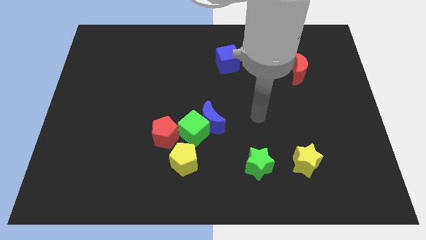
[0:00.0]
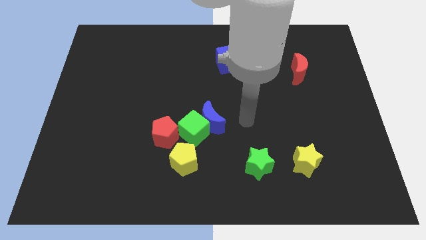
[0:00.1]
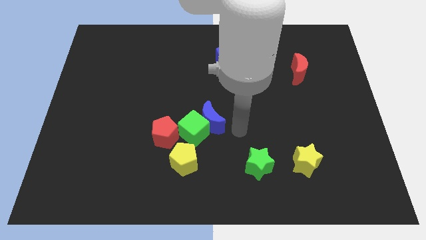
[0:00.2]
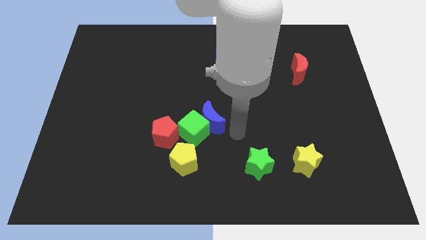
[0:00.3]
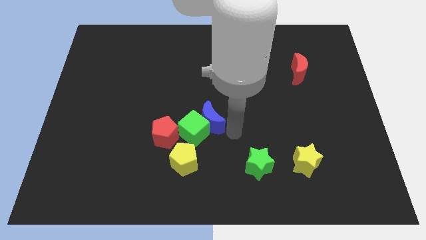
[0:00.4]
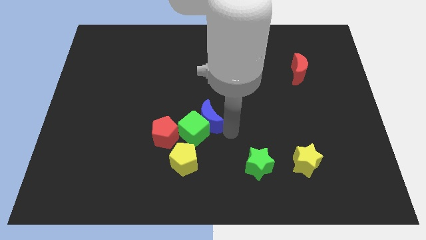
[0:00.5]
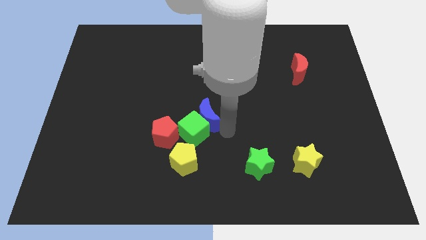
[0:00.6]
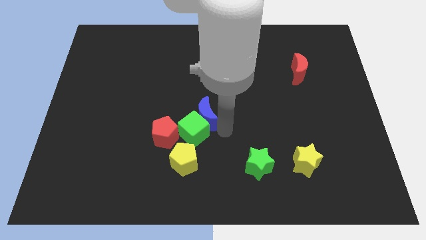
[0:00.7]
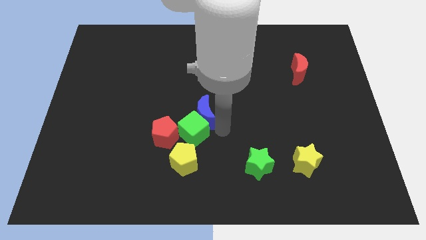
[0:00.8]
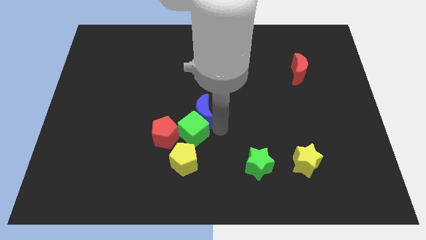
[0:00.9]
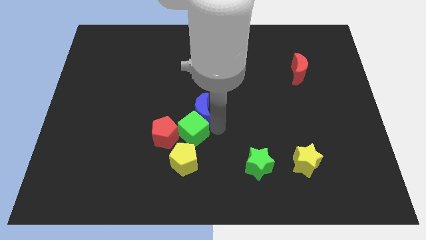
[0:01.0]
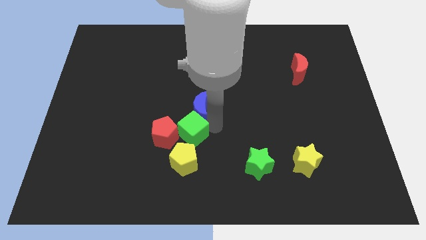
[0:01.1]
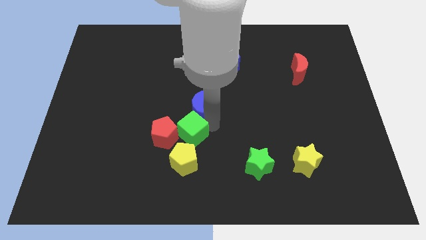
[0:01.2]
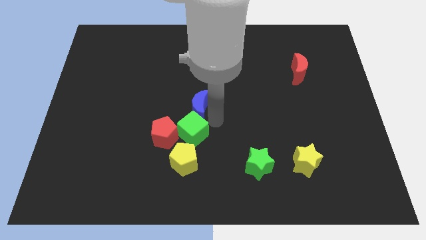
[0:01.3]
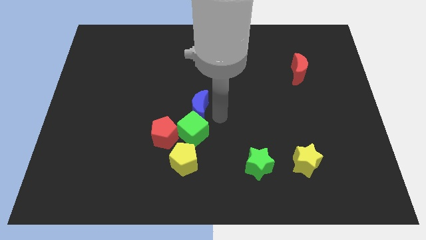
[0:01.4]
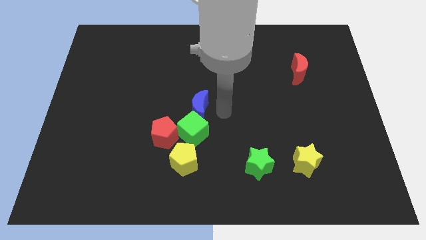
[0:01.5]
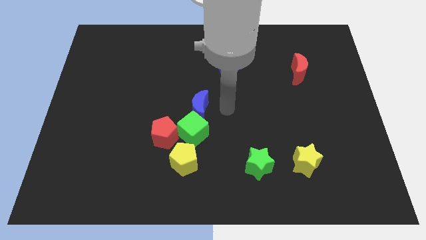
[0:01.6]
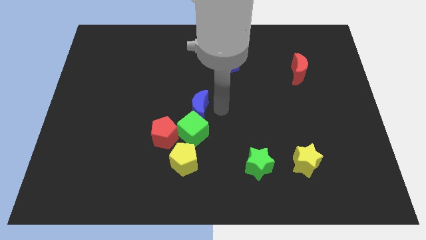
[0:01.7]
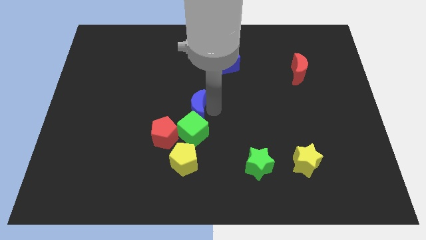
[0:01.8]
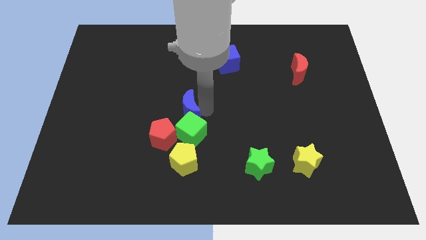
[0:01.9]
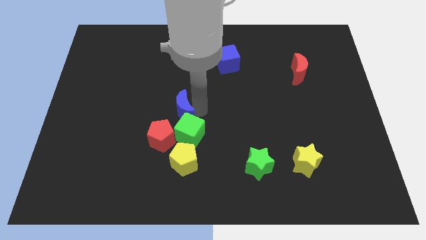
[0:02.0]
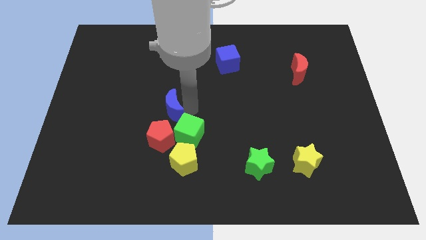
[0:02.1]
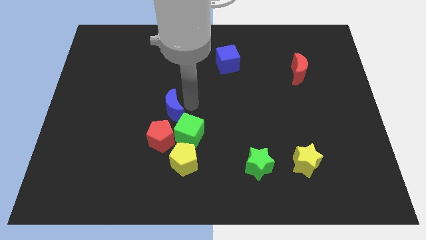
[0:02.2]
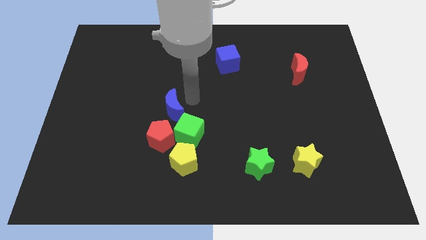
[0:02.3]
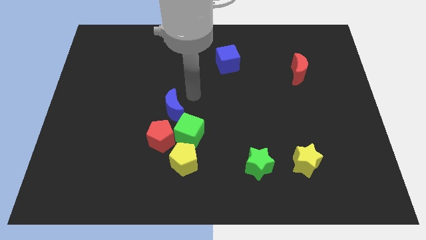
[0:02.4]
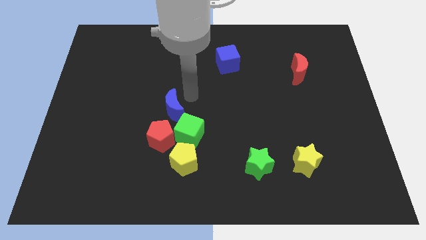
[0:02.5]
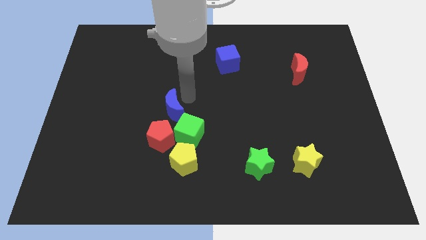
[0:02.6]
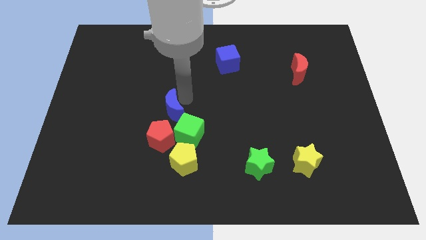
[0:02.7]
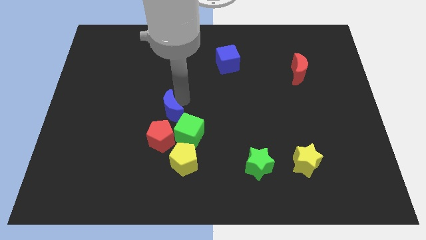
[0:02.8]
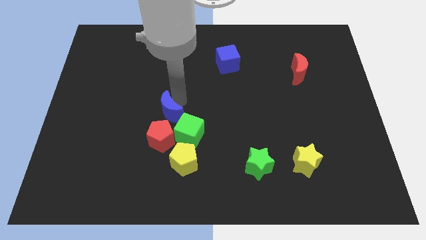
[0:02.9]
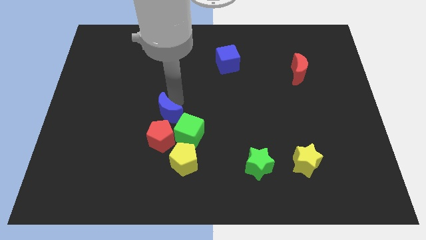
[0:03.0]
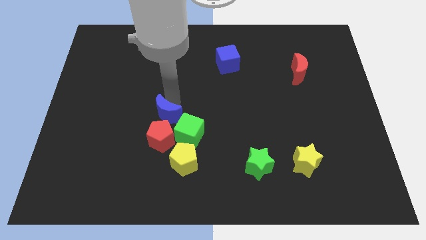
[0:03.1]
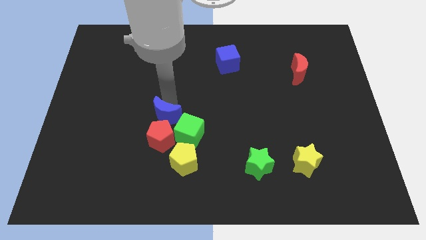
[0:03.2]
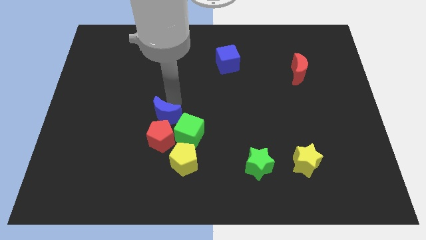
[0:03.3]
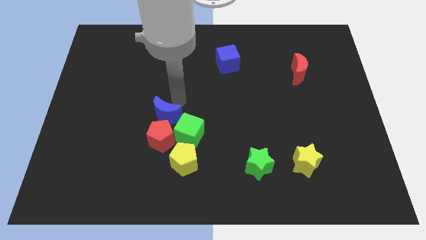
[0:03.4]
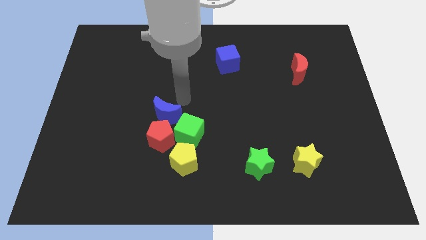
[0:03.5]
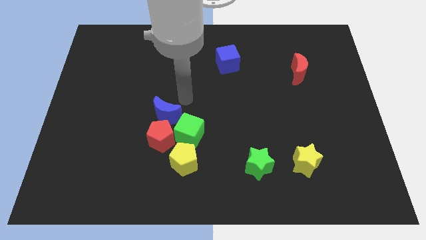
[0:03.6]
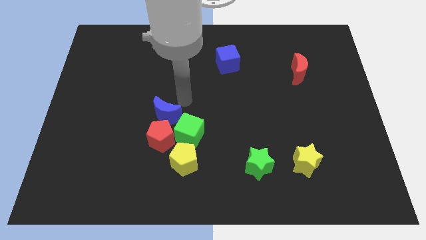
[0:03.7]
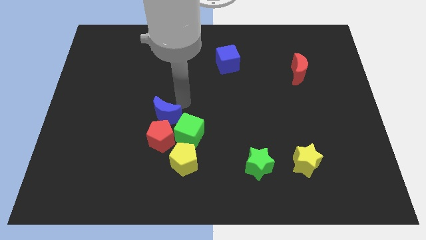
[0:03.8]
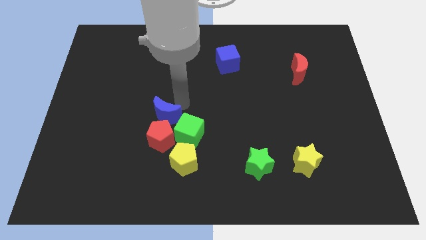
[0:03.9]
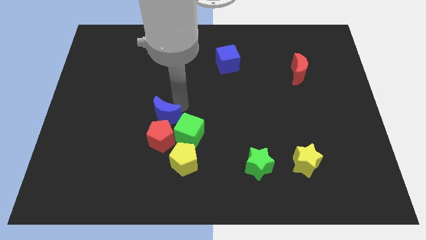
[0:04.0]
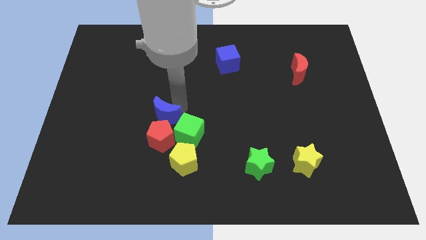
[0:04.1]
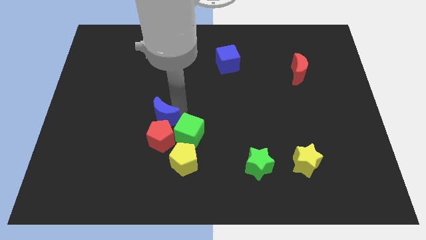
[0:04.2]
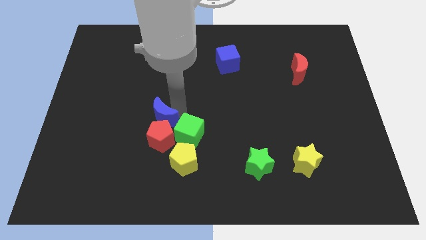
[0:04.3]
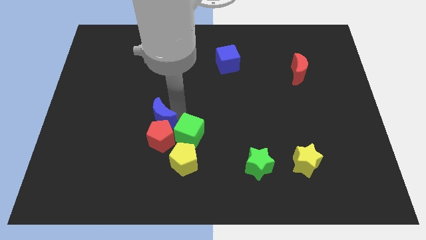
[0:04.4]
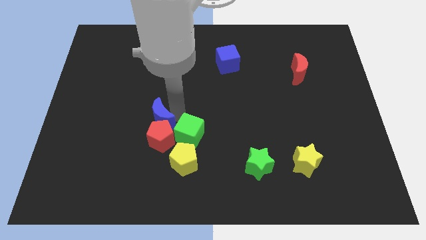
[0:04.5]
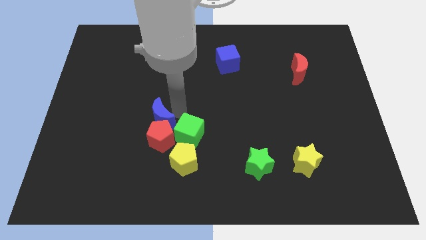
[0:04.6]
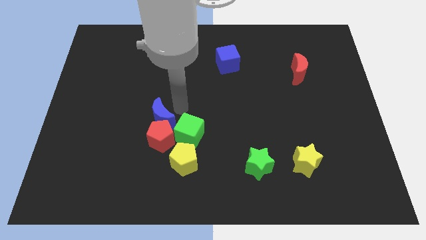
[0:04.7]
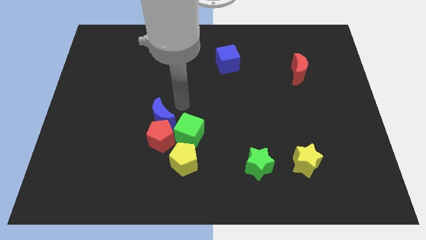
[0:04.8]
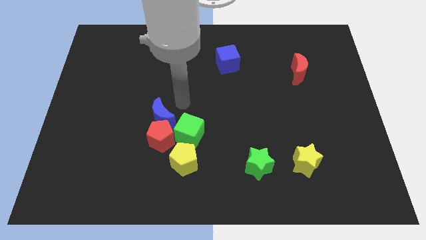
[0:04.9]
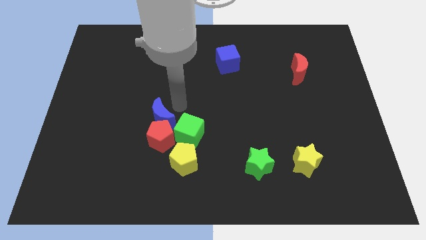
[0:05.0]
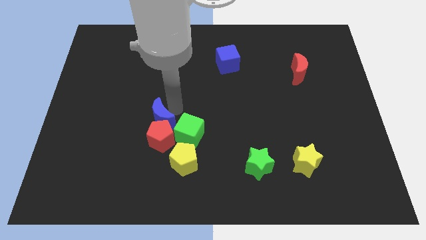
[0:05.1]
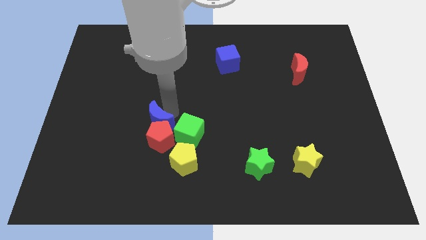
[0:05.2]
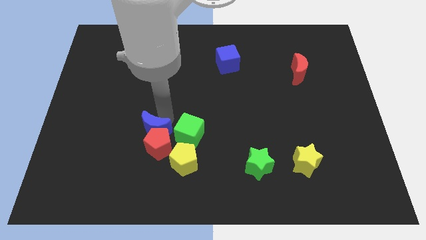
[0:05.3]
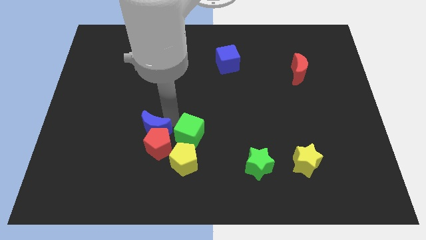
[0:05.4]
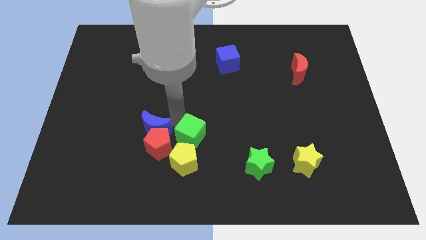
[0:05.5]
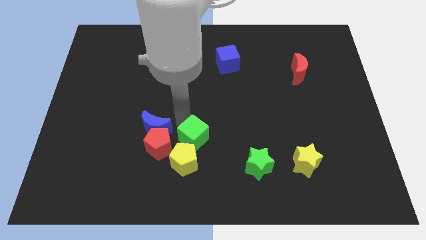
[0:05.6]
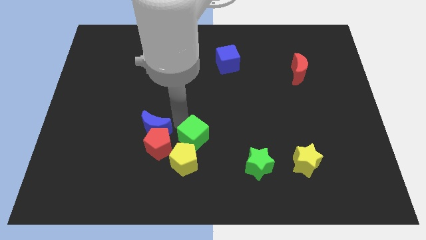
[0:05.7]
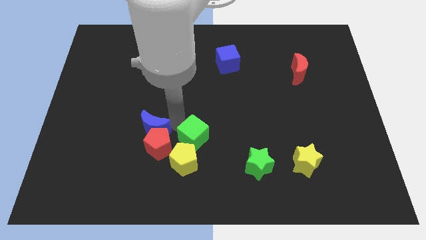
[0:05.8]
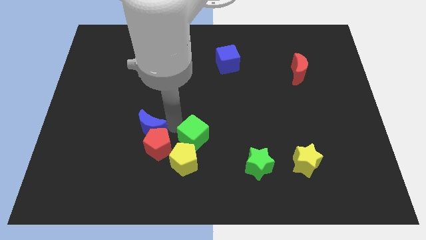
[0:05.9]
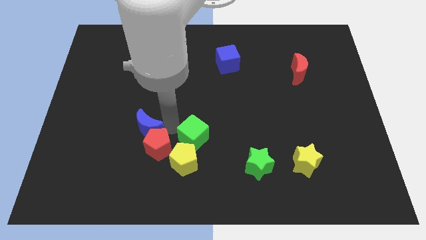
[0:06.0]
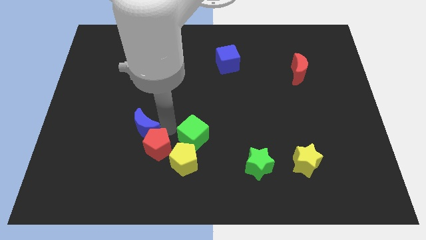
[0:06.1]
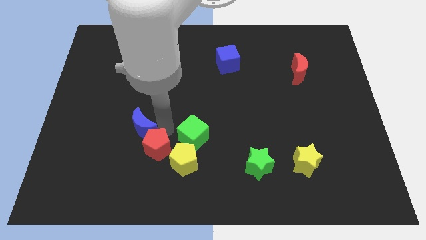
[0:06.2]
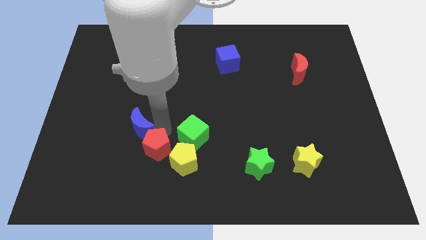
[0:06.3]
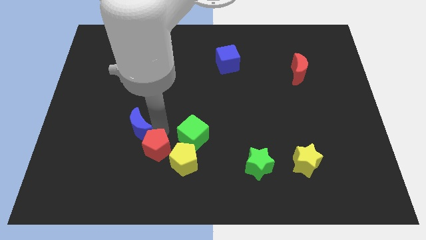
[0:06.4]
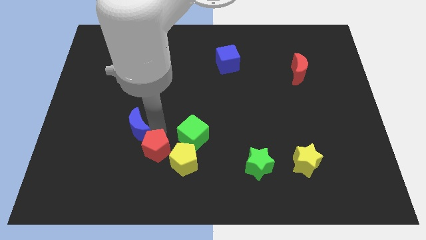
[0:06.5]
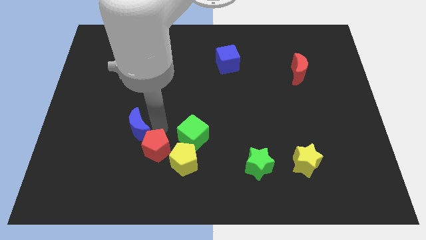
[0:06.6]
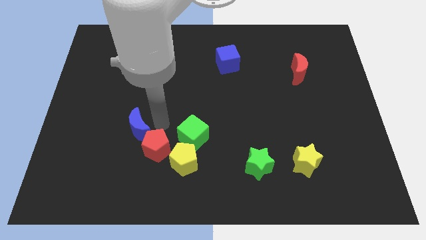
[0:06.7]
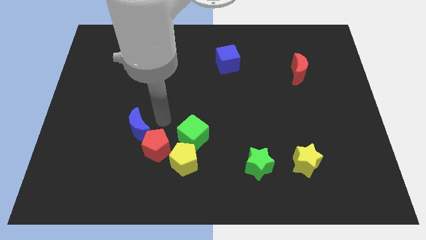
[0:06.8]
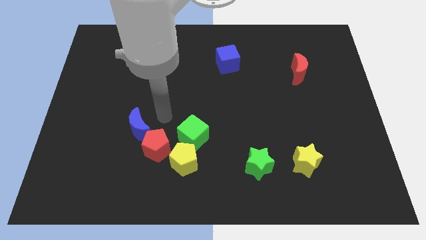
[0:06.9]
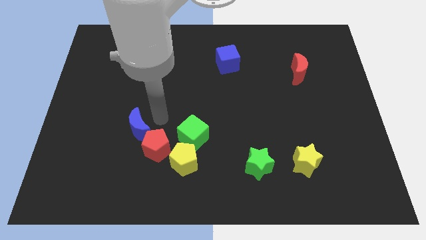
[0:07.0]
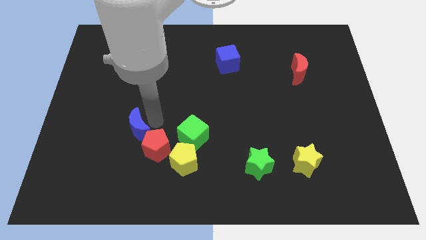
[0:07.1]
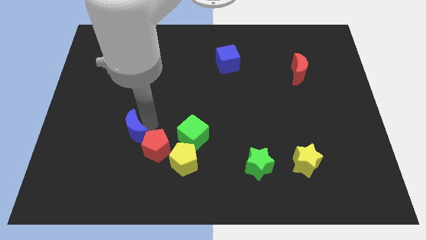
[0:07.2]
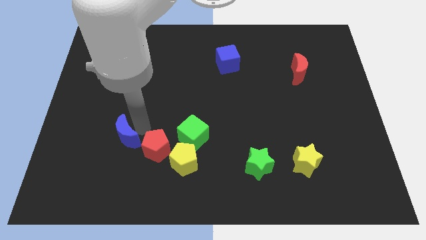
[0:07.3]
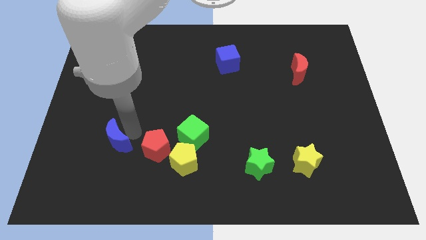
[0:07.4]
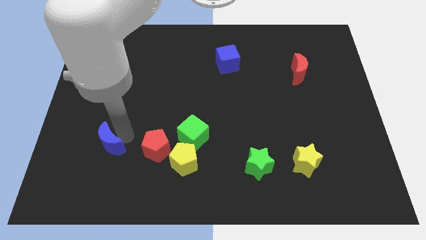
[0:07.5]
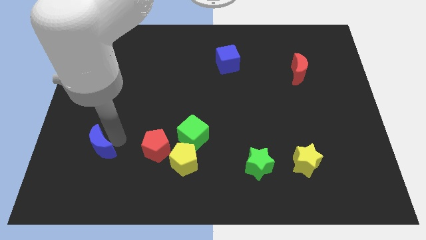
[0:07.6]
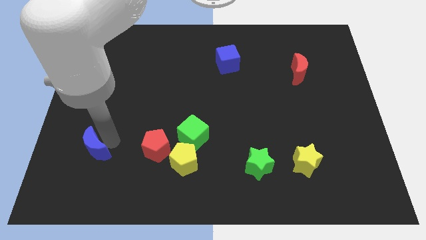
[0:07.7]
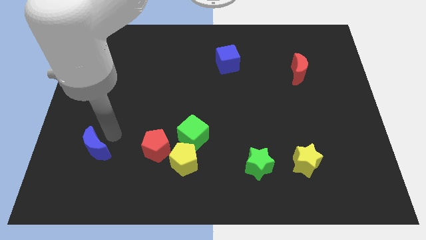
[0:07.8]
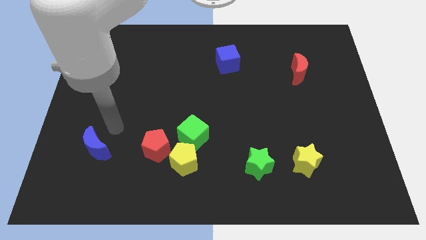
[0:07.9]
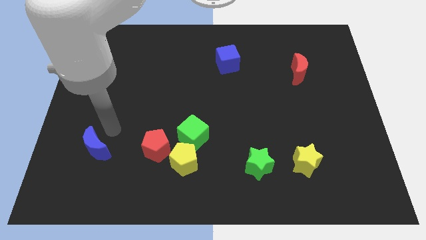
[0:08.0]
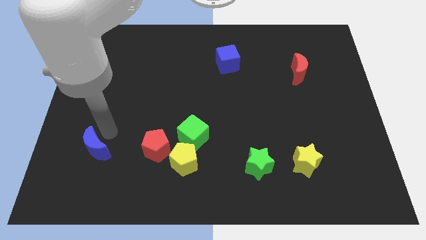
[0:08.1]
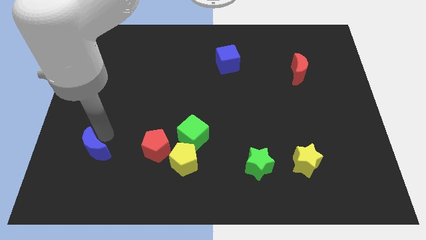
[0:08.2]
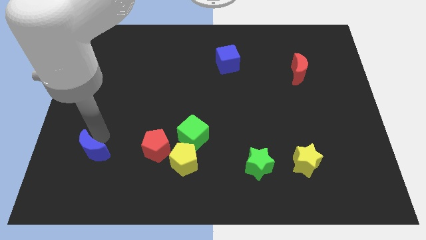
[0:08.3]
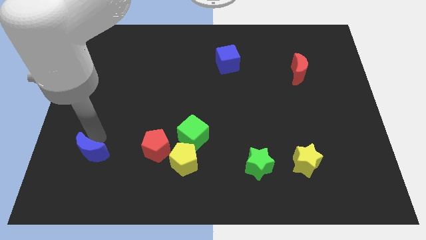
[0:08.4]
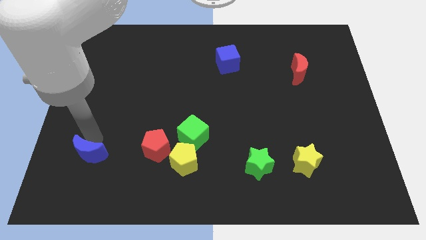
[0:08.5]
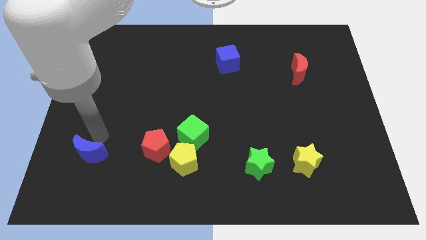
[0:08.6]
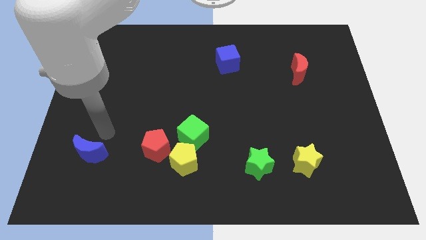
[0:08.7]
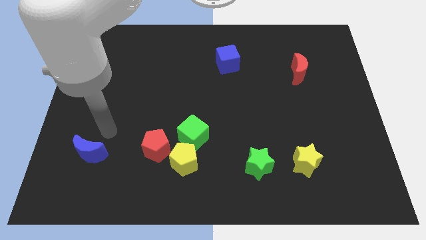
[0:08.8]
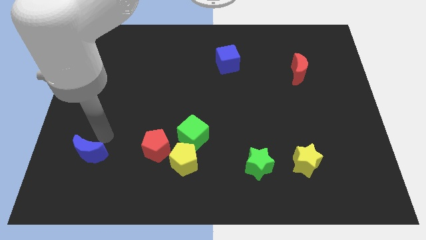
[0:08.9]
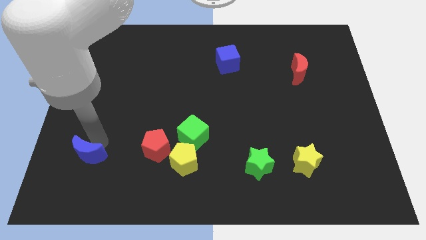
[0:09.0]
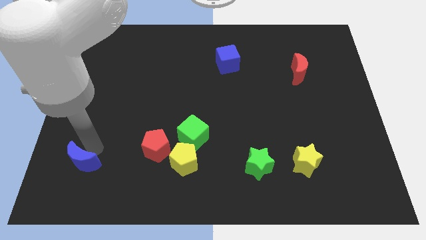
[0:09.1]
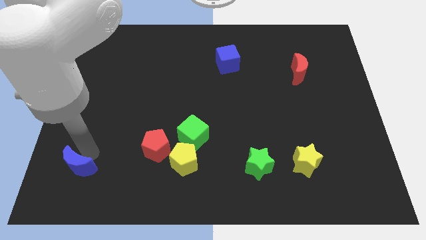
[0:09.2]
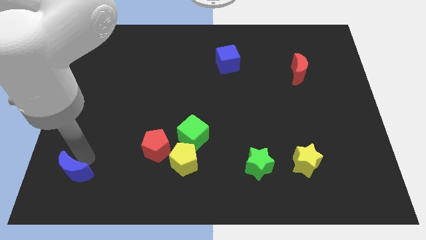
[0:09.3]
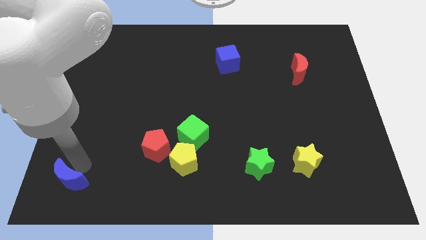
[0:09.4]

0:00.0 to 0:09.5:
move the blue moon to the lower left corner
